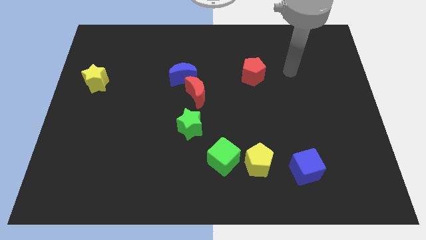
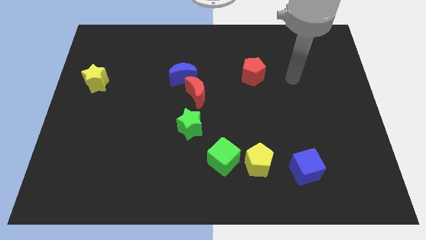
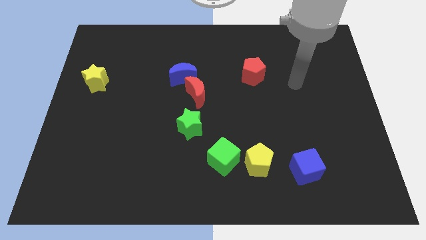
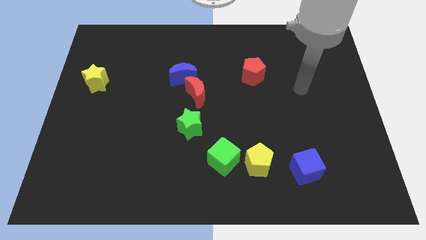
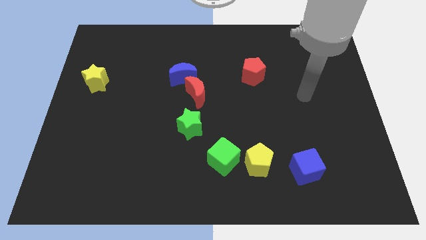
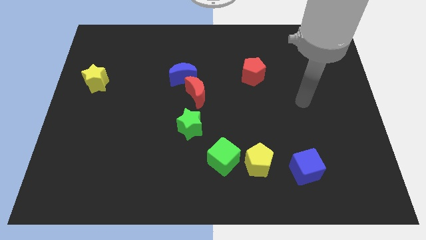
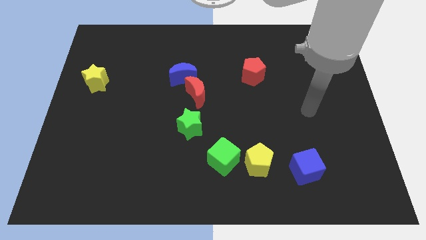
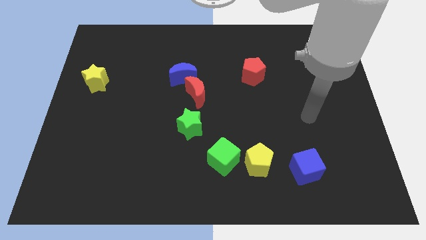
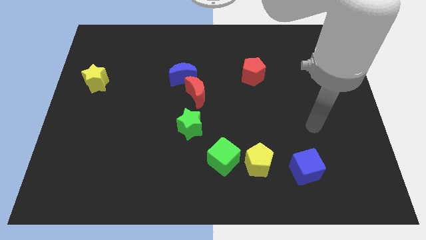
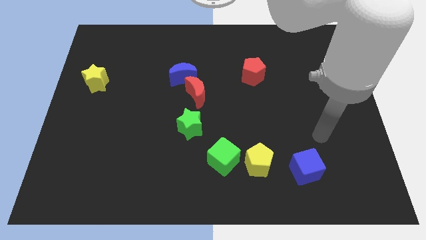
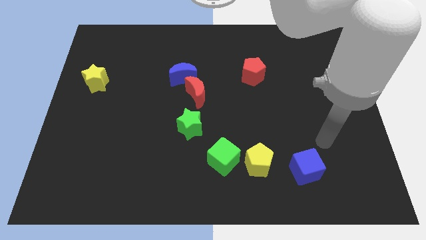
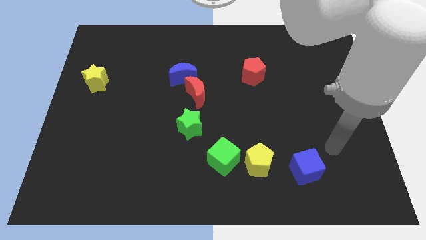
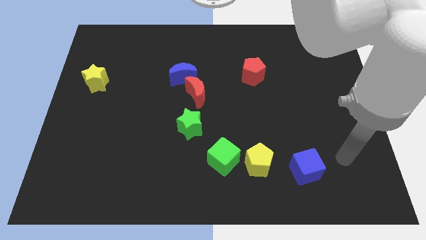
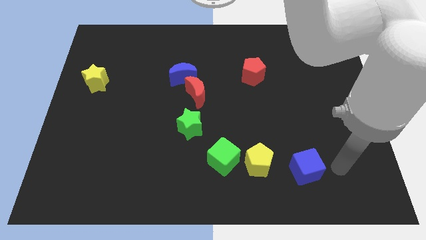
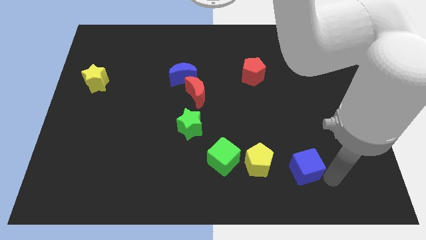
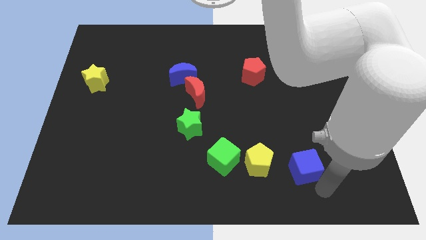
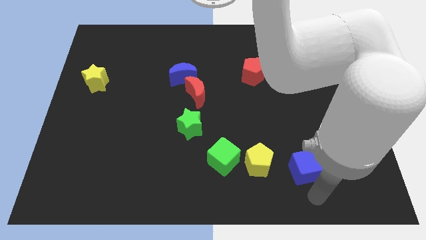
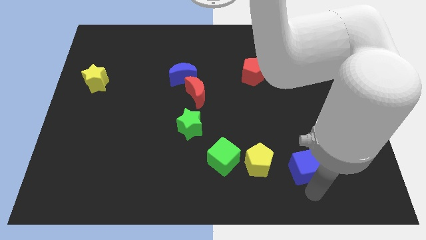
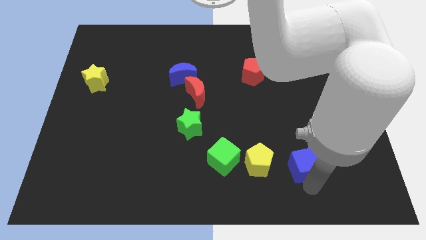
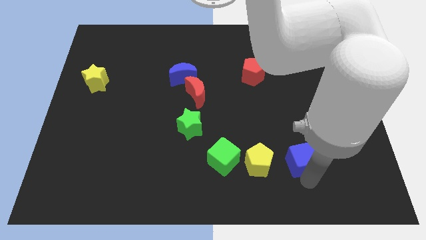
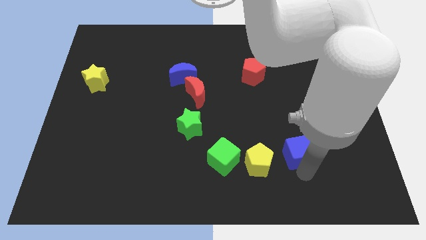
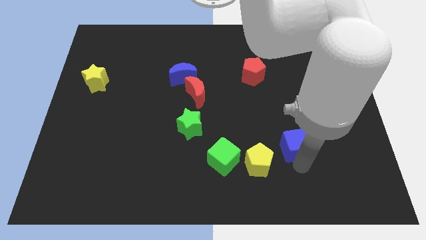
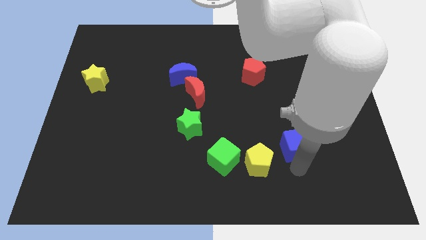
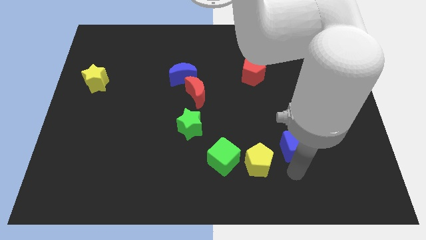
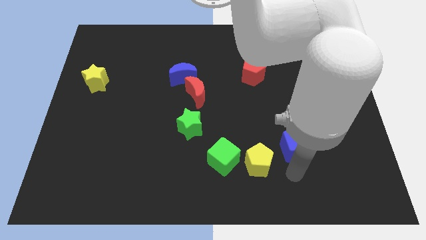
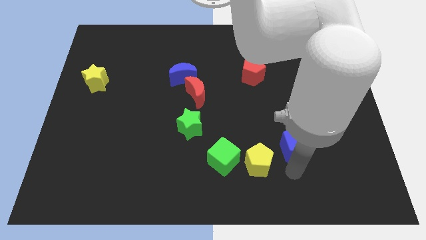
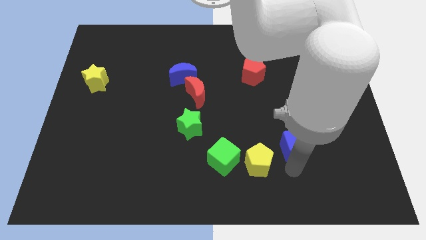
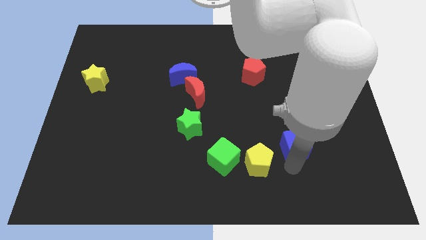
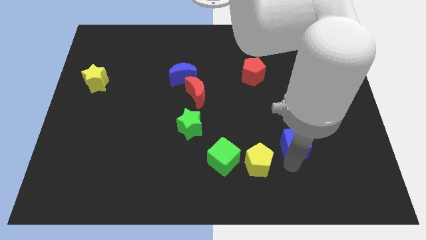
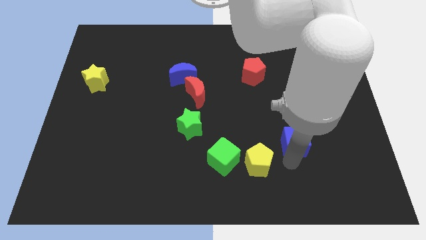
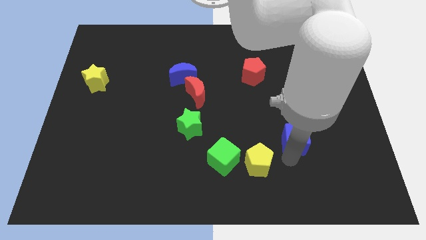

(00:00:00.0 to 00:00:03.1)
move the blue cube upwards slightly

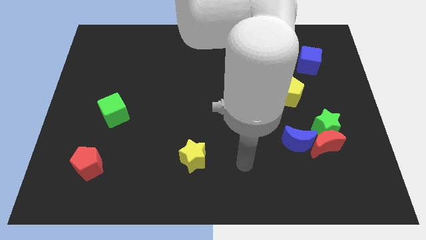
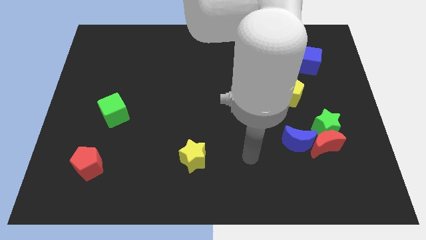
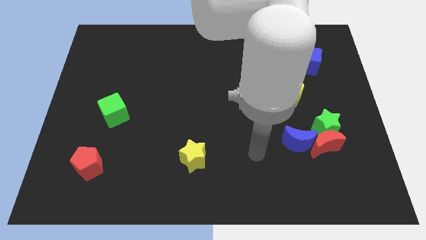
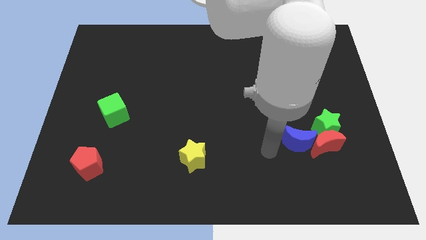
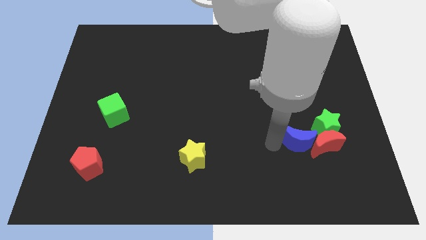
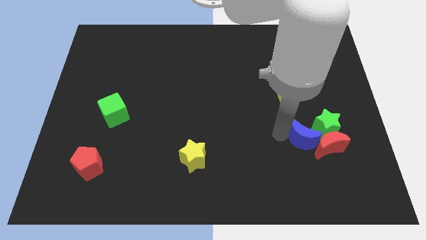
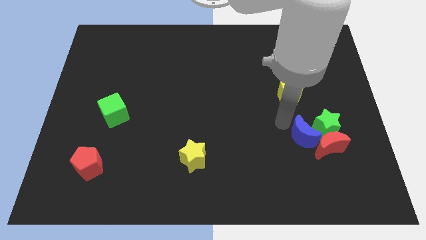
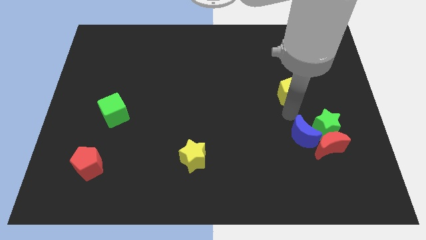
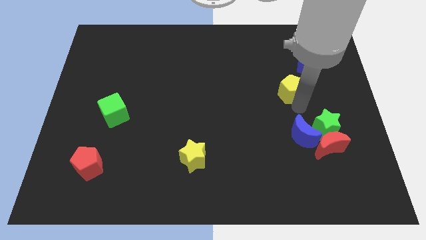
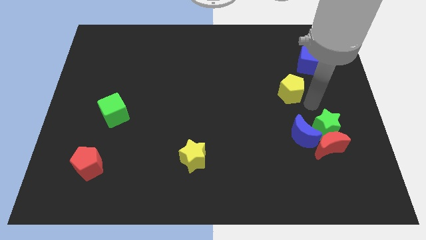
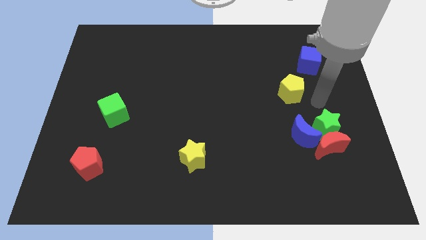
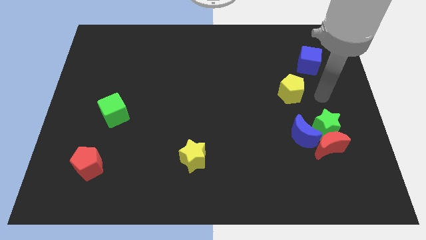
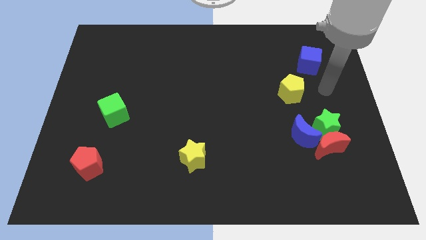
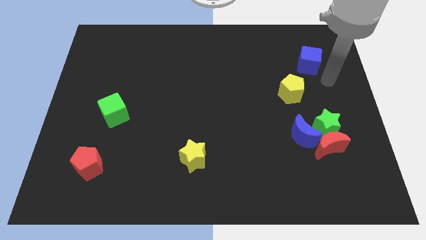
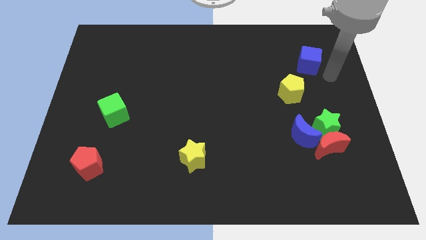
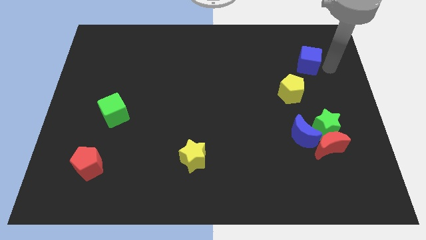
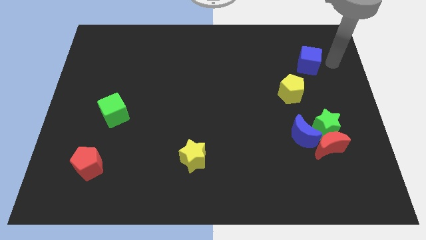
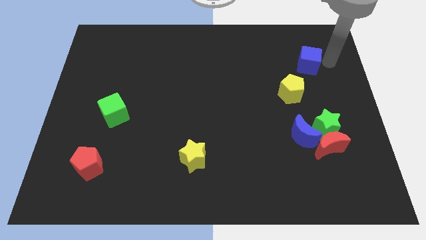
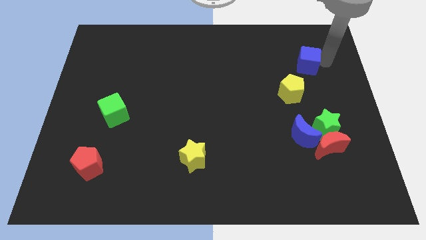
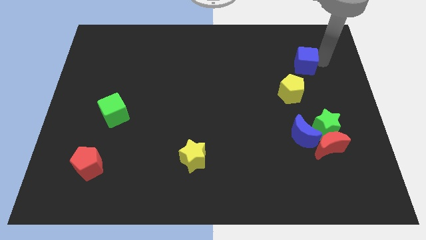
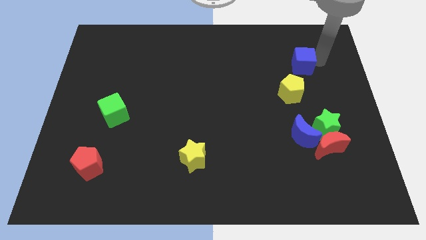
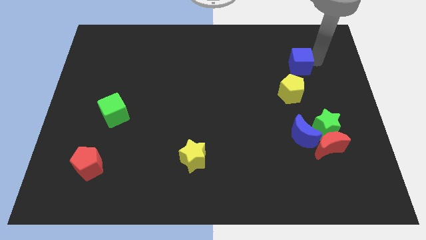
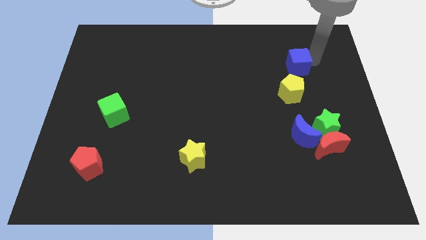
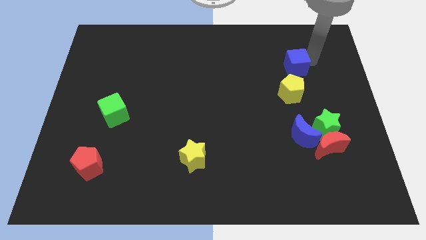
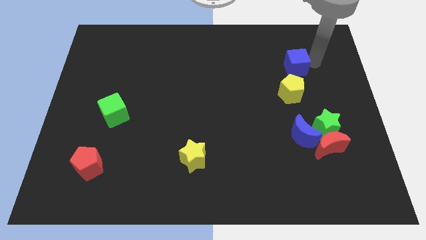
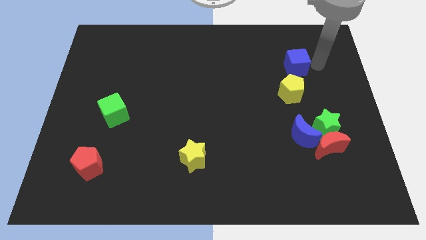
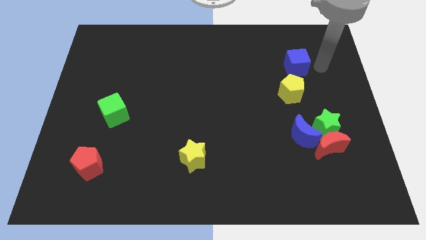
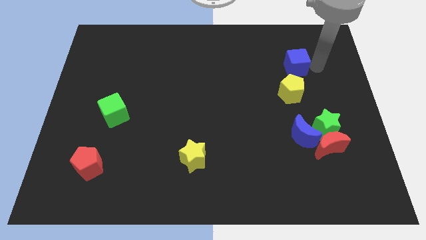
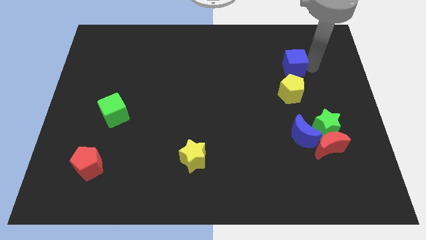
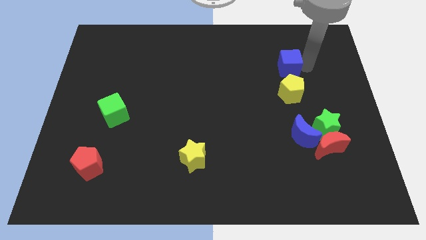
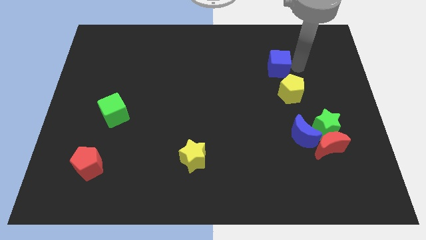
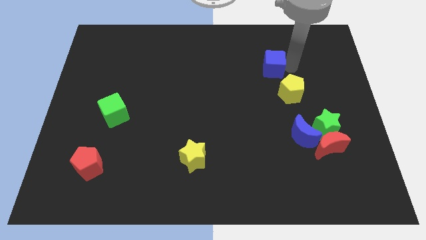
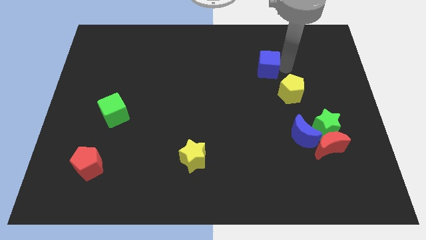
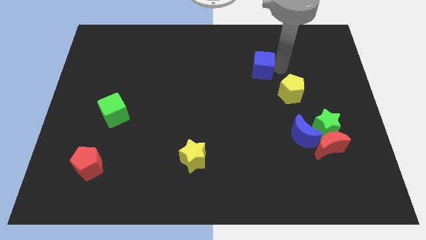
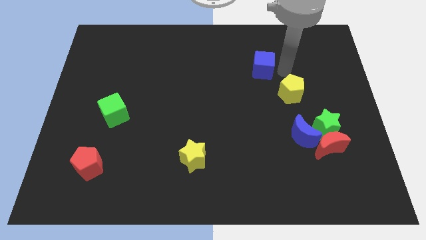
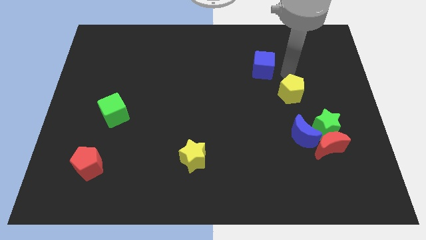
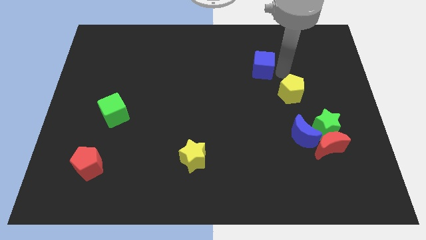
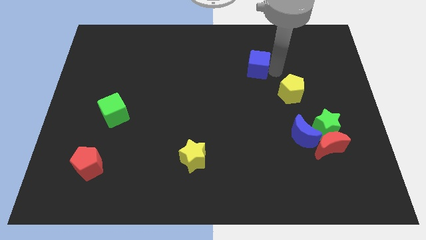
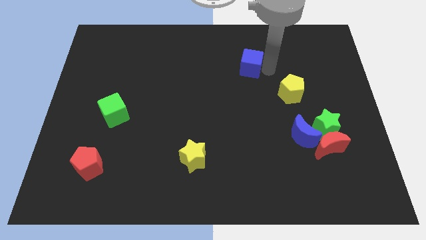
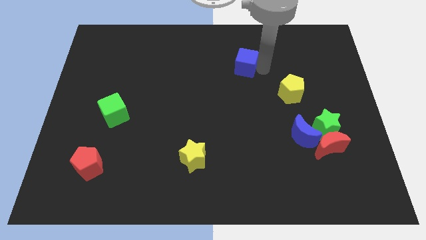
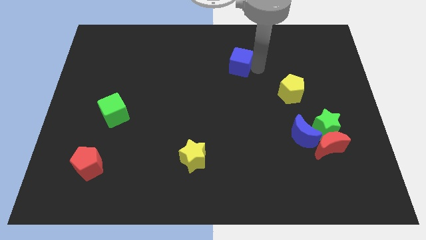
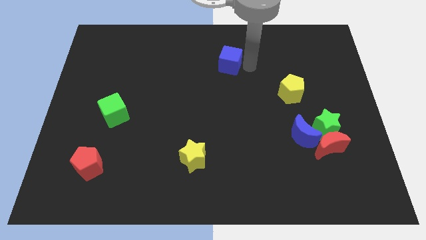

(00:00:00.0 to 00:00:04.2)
move the blue cube to the left

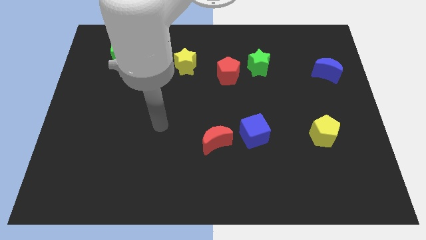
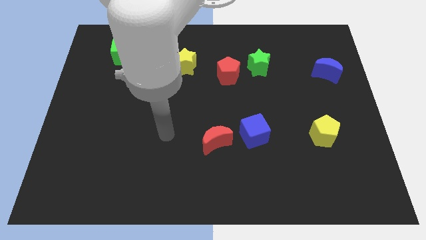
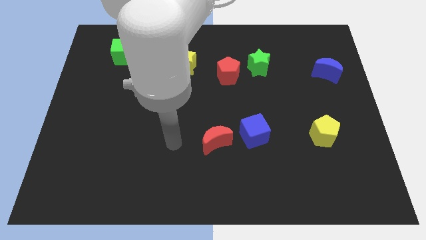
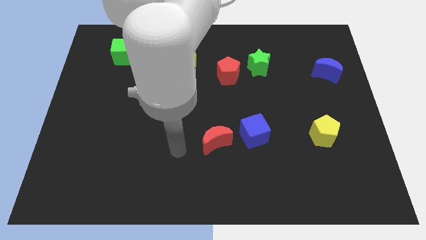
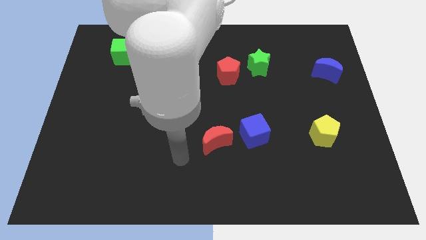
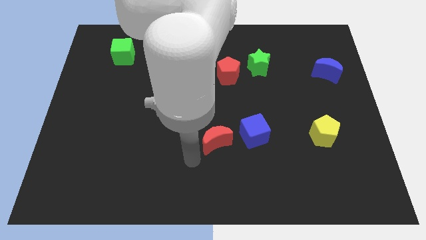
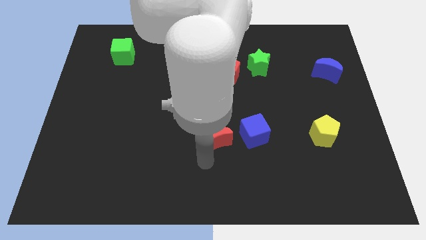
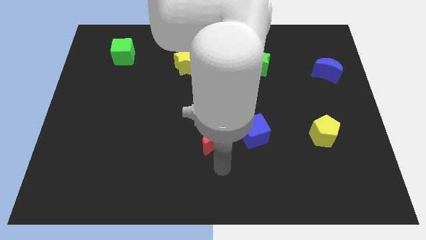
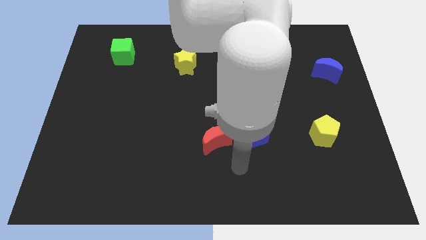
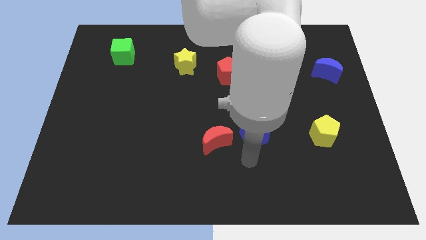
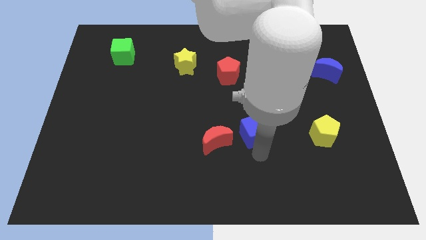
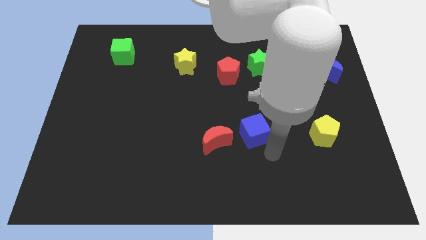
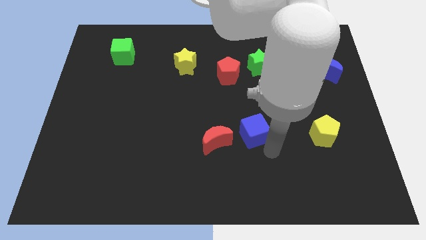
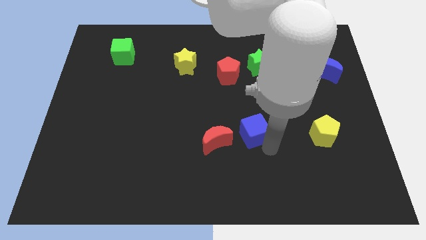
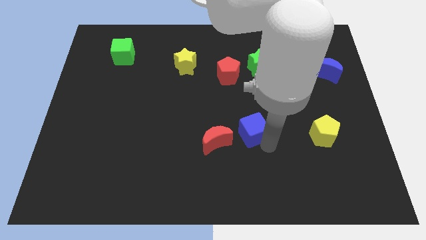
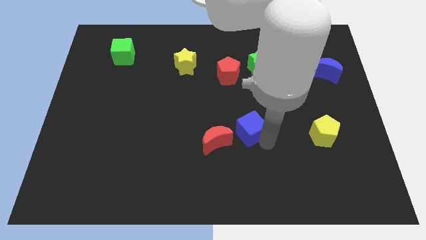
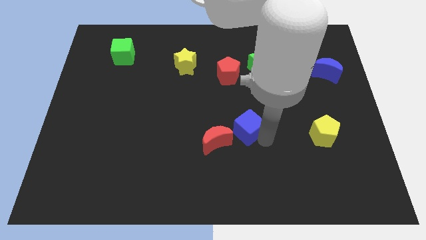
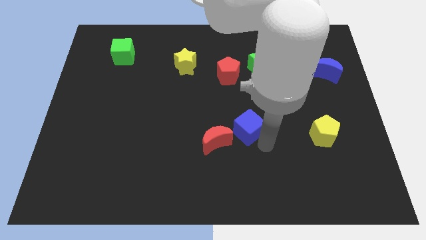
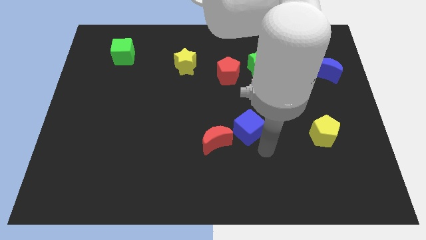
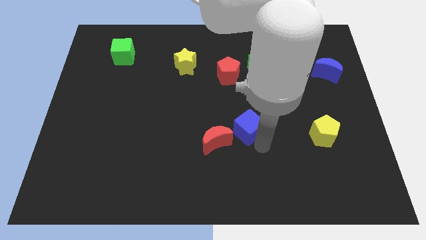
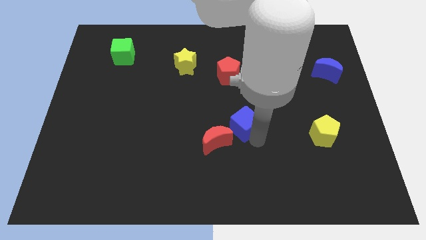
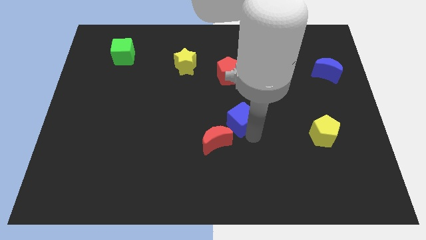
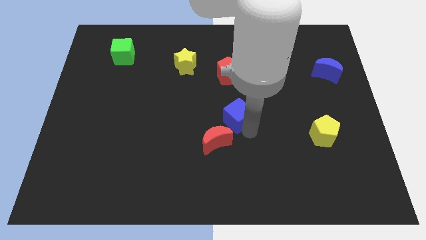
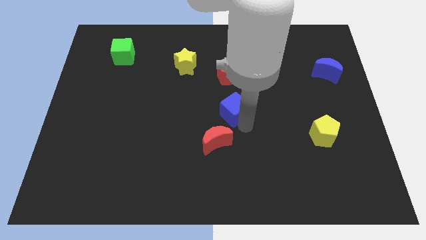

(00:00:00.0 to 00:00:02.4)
push the blue cube a little bit diagonally upwards and left
